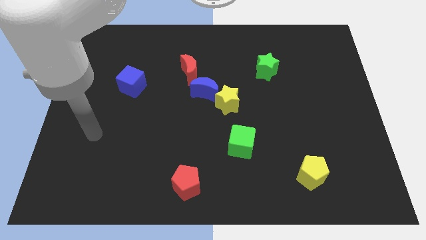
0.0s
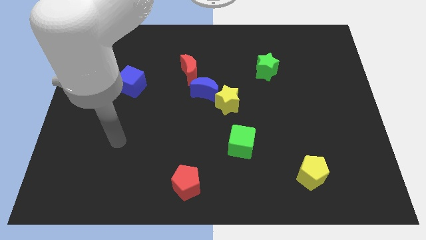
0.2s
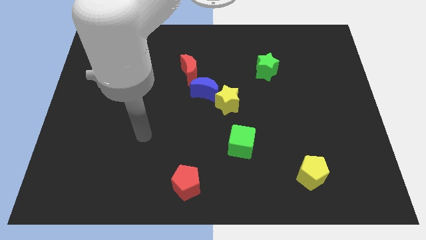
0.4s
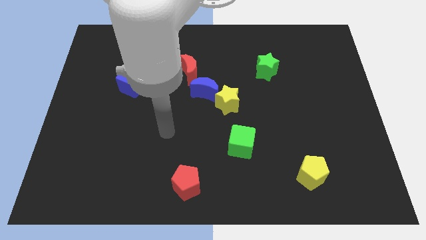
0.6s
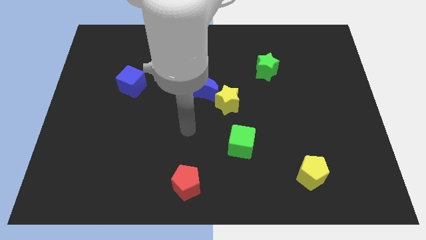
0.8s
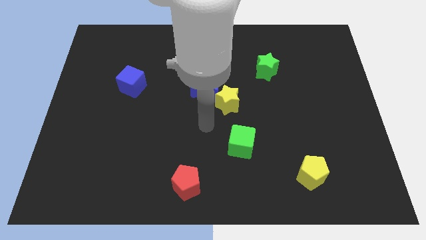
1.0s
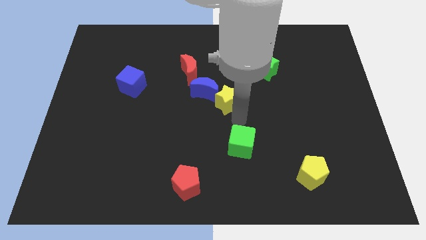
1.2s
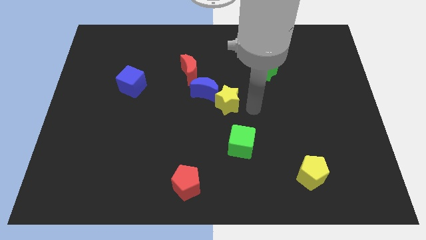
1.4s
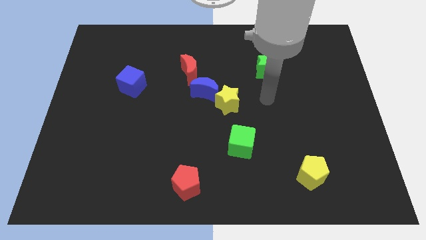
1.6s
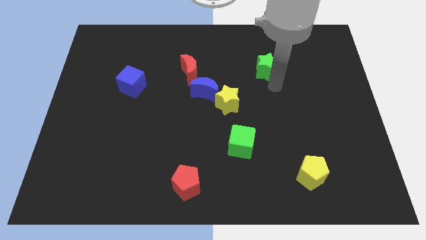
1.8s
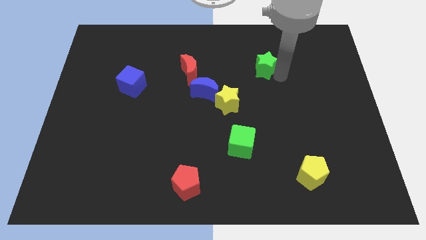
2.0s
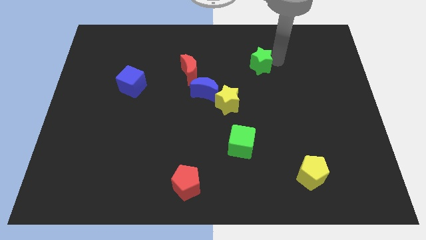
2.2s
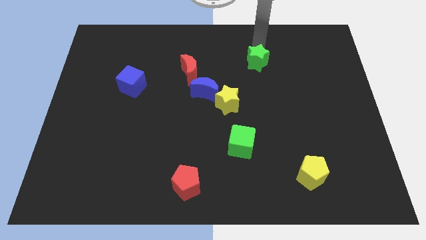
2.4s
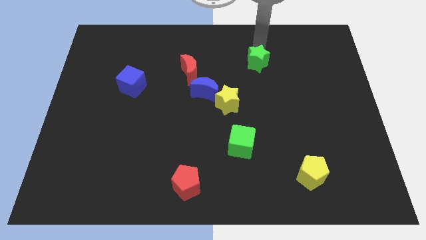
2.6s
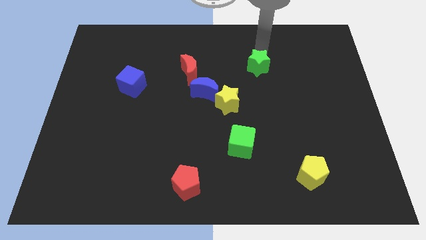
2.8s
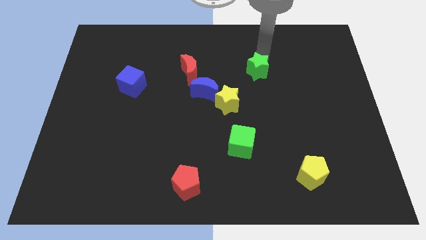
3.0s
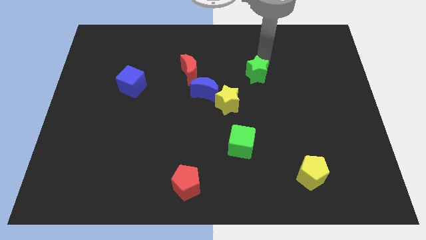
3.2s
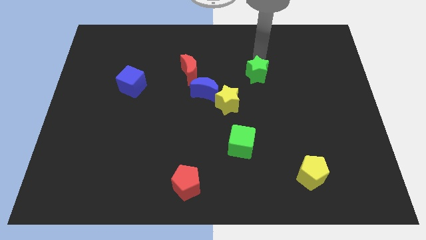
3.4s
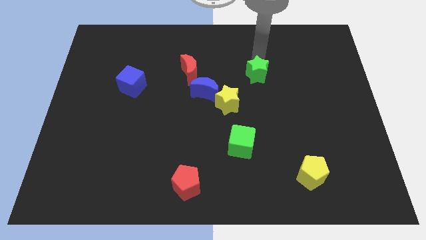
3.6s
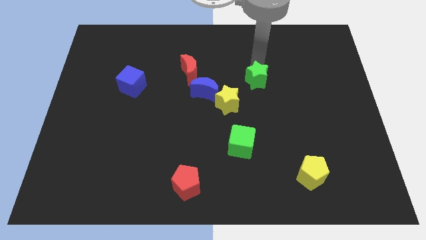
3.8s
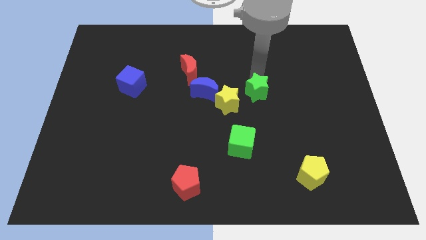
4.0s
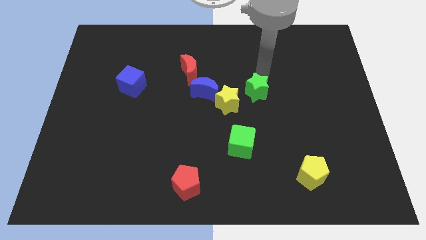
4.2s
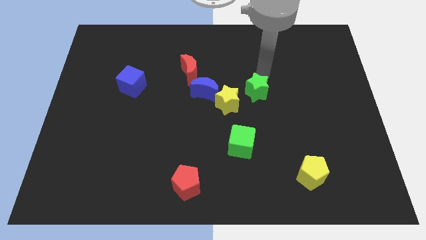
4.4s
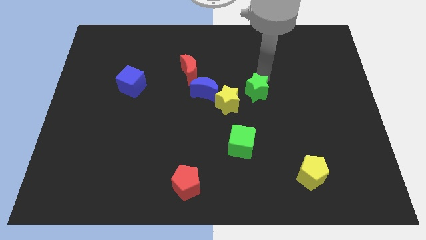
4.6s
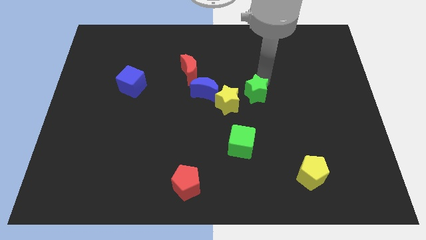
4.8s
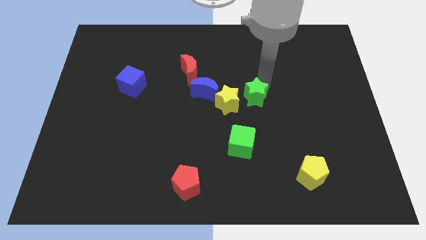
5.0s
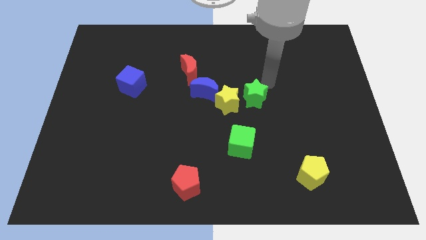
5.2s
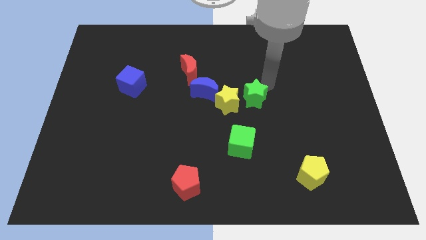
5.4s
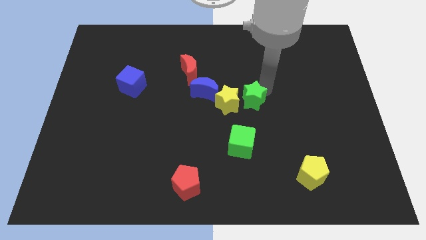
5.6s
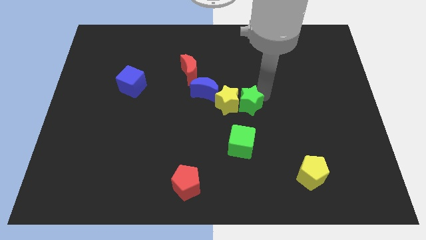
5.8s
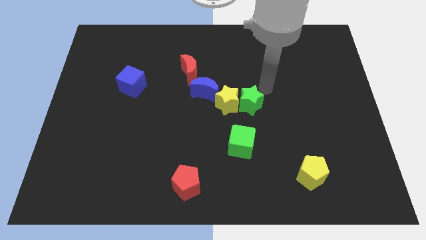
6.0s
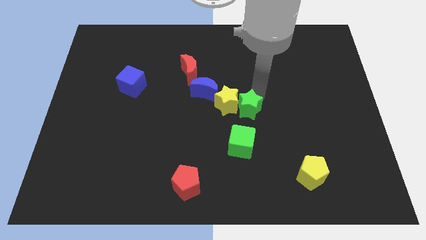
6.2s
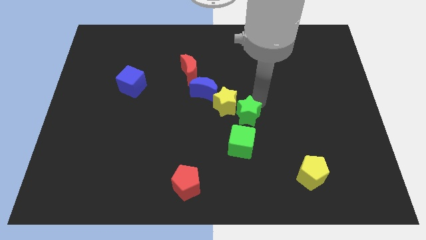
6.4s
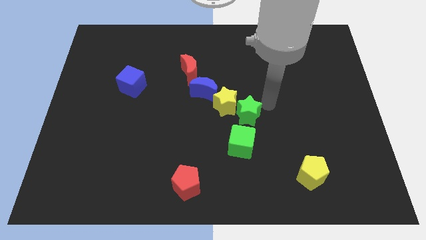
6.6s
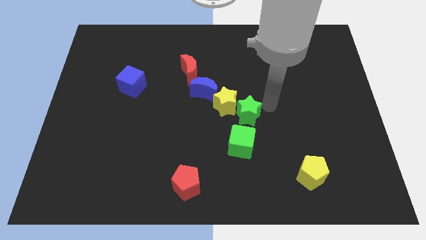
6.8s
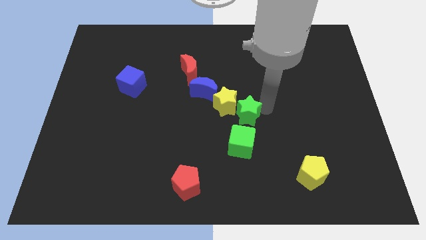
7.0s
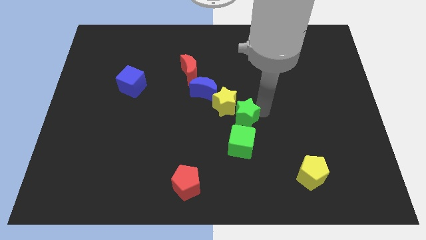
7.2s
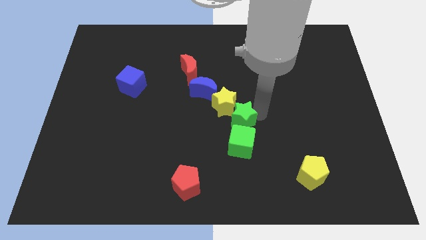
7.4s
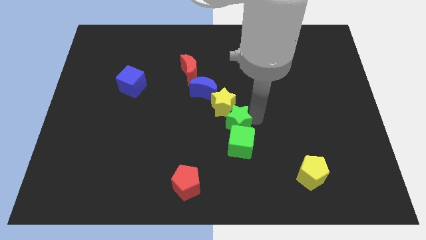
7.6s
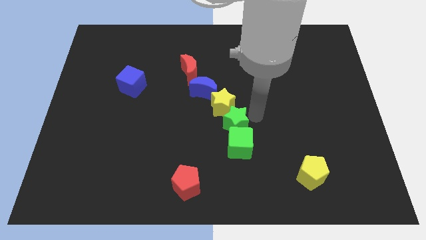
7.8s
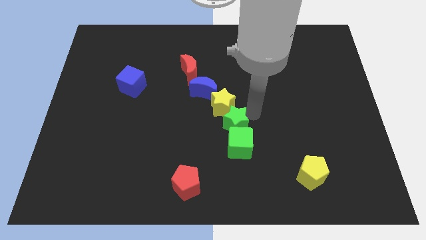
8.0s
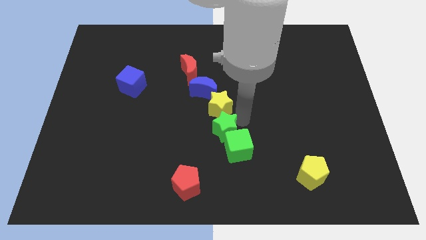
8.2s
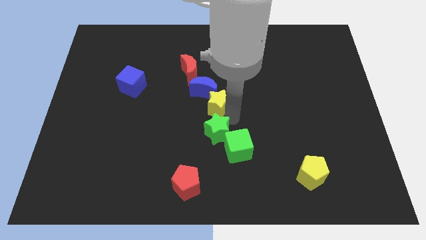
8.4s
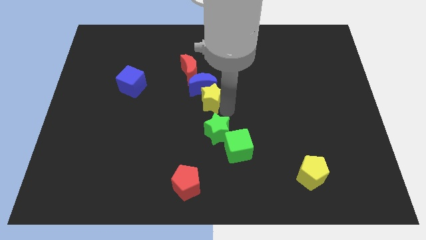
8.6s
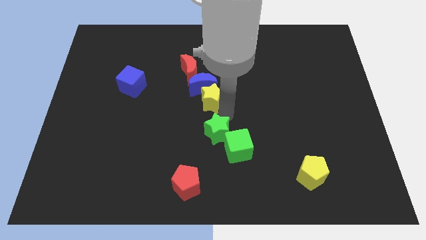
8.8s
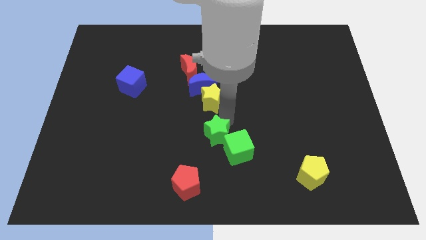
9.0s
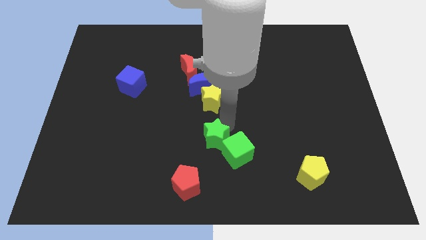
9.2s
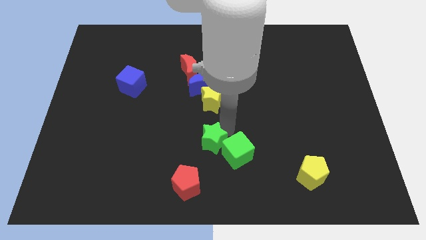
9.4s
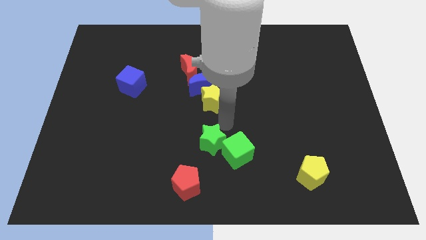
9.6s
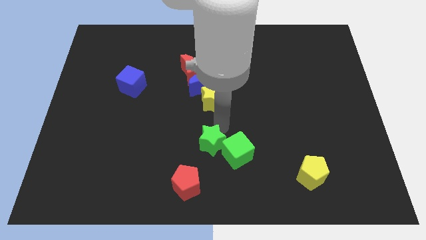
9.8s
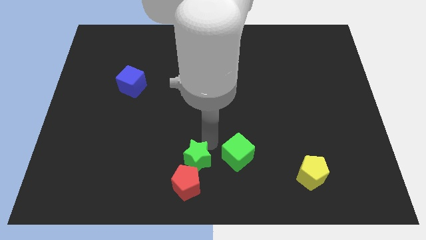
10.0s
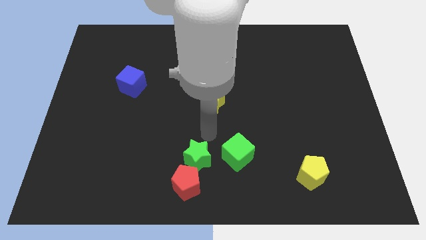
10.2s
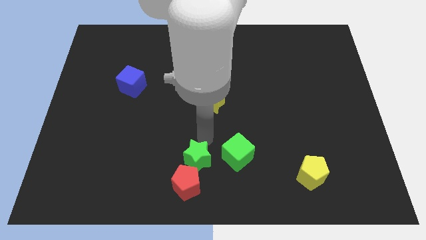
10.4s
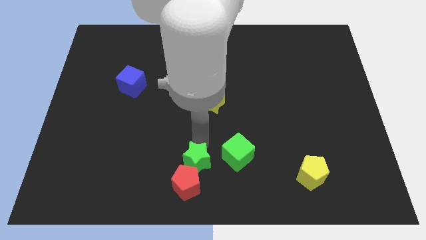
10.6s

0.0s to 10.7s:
put the green star close to the red pentagon

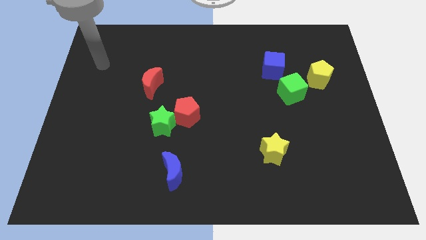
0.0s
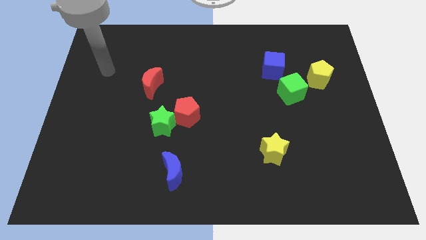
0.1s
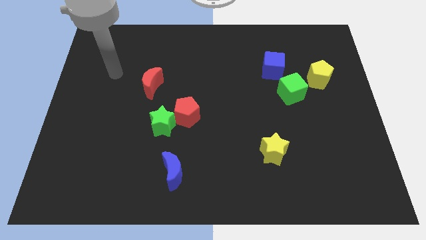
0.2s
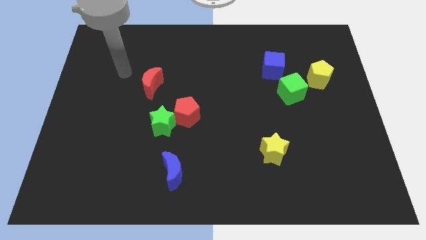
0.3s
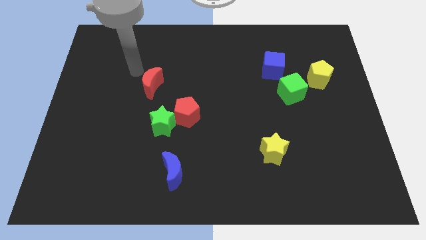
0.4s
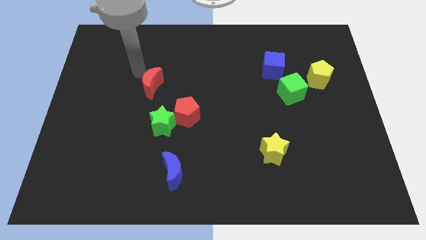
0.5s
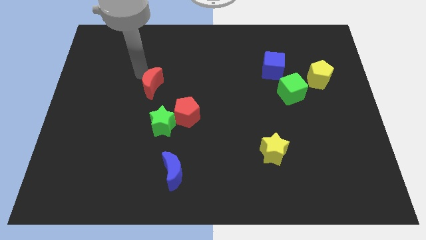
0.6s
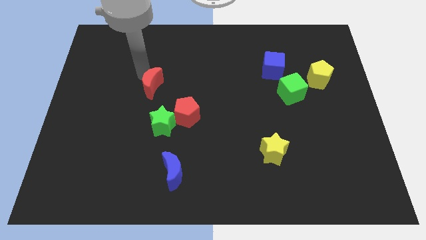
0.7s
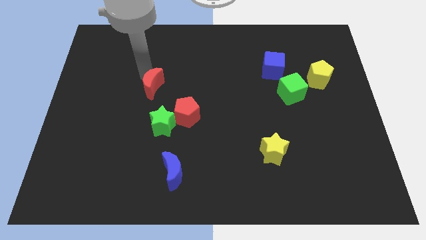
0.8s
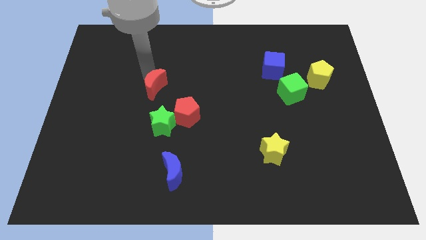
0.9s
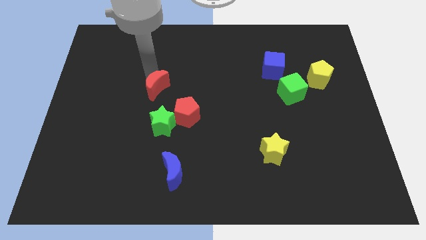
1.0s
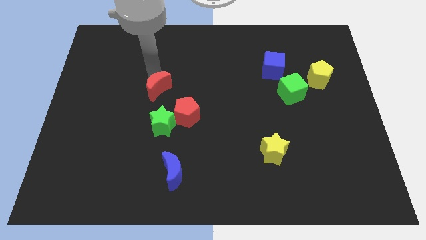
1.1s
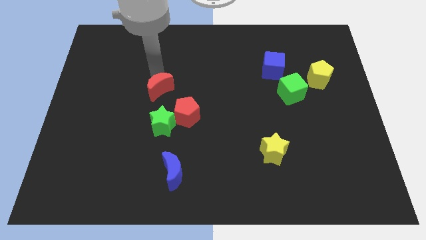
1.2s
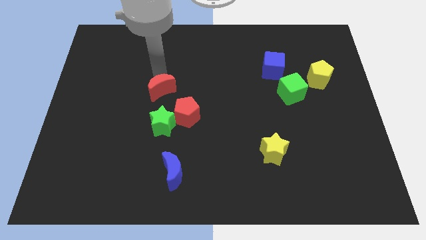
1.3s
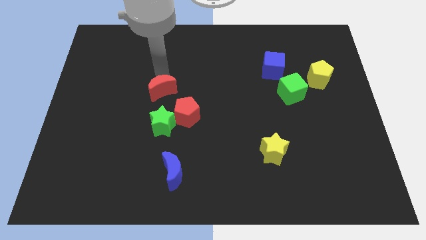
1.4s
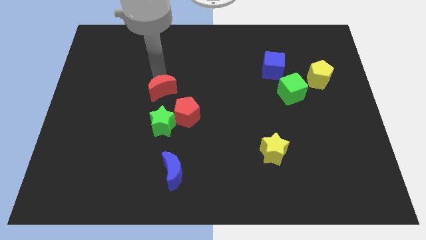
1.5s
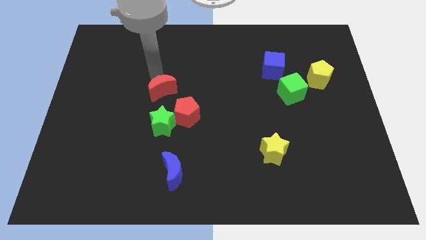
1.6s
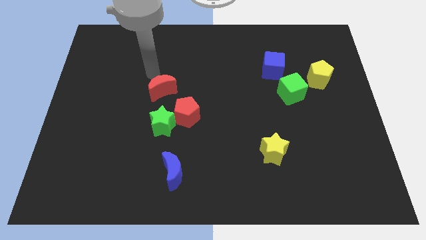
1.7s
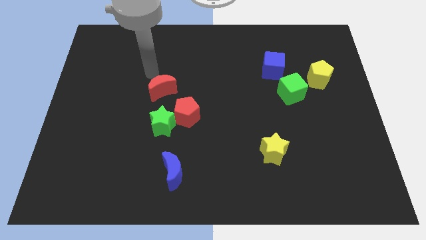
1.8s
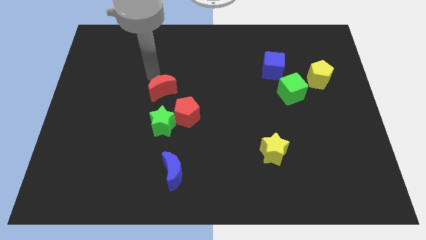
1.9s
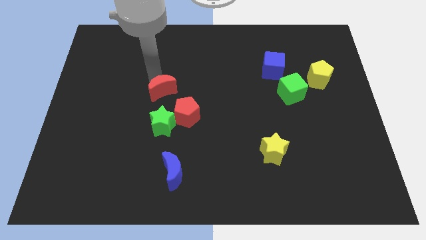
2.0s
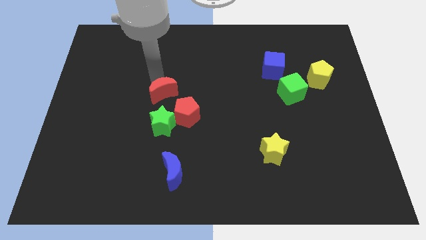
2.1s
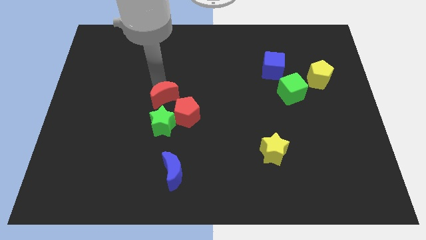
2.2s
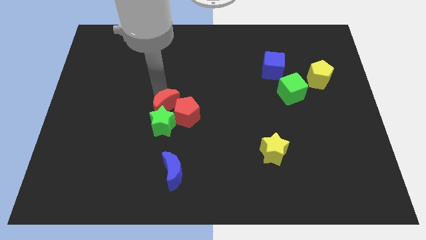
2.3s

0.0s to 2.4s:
slide the red moon next to the red pentagon
